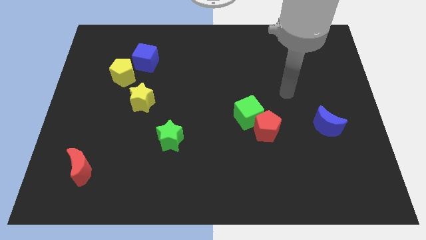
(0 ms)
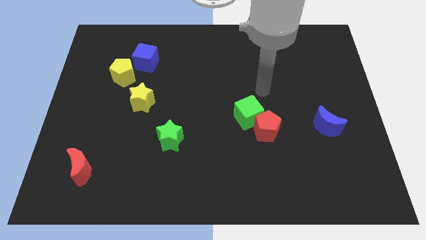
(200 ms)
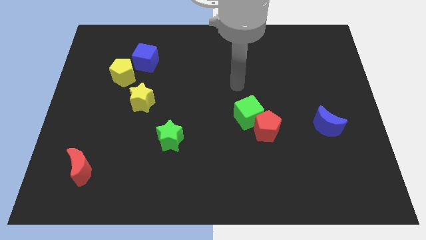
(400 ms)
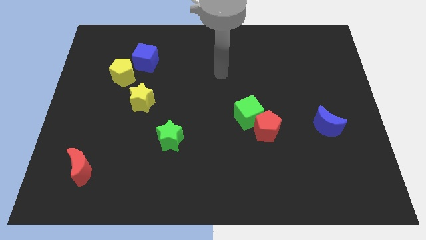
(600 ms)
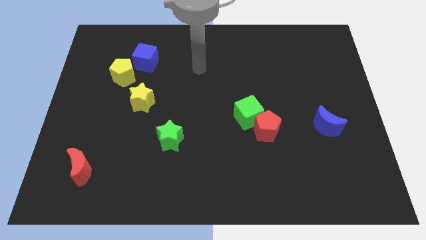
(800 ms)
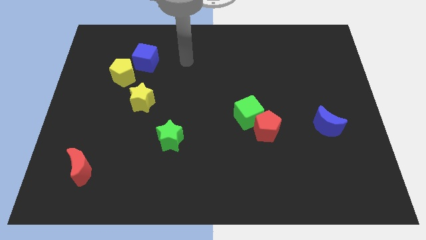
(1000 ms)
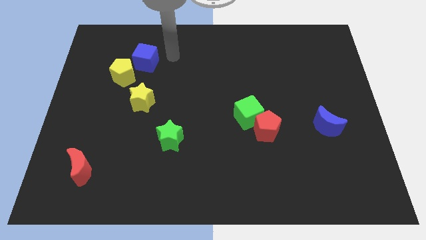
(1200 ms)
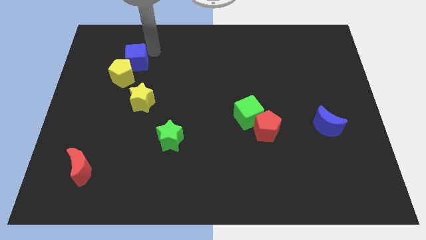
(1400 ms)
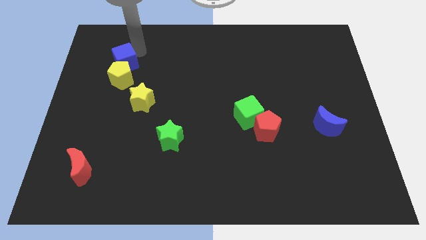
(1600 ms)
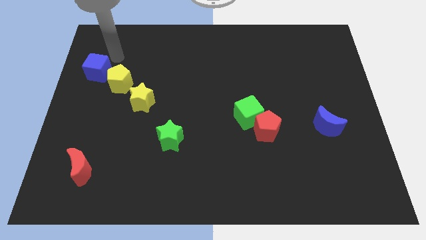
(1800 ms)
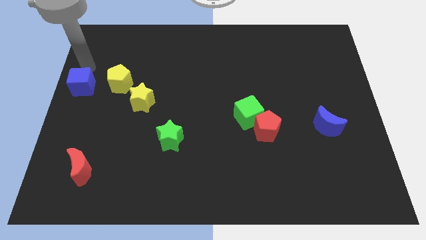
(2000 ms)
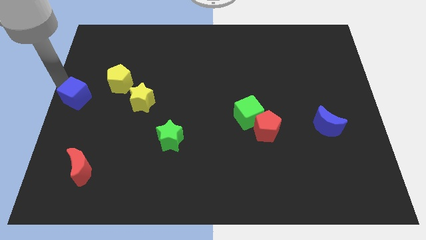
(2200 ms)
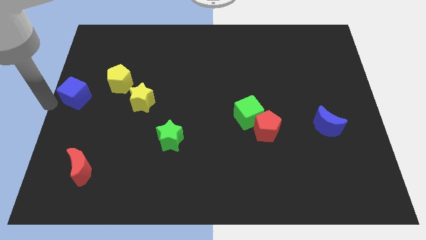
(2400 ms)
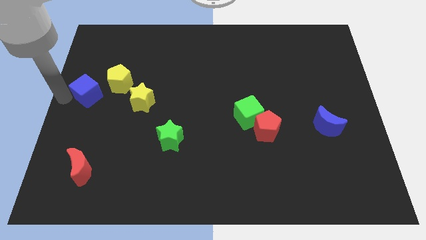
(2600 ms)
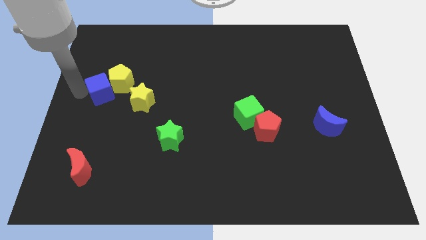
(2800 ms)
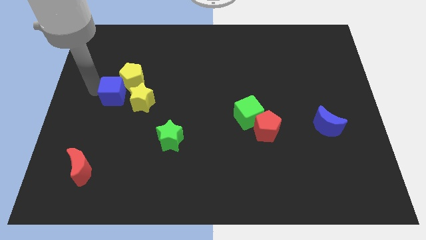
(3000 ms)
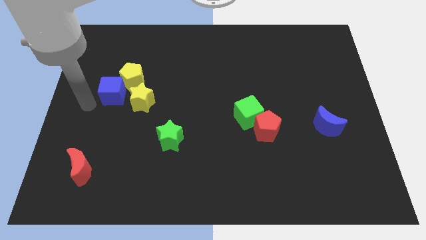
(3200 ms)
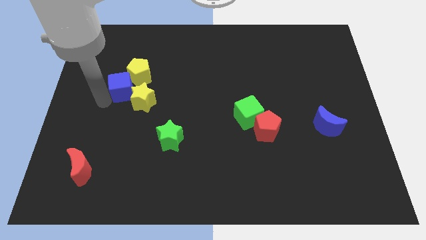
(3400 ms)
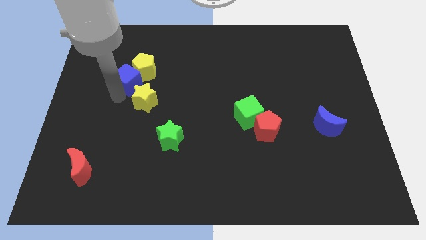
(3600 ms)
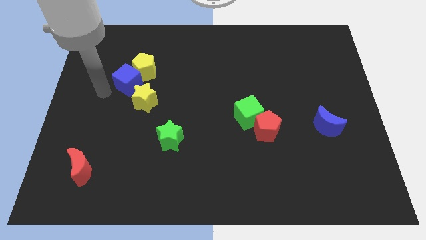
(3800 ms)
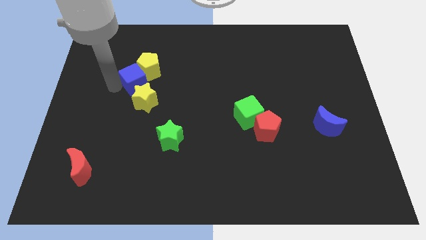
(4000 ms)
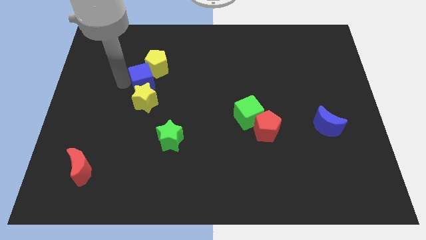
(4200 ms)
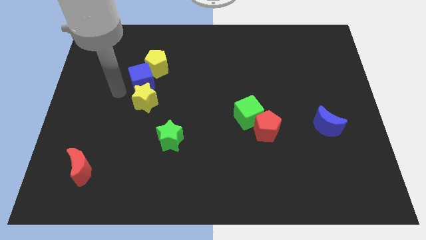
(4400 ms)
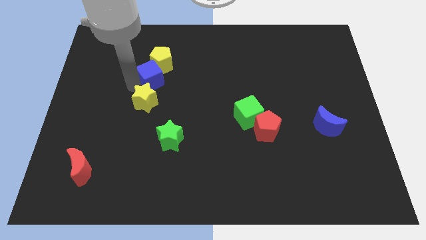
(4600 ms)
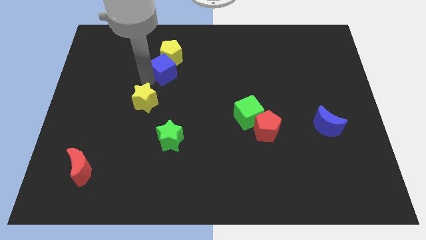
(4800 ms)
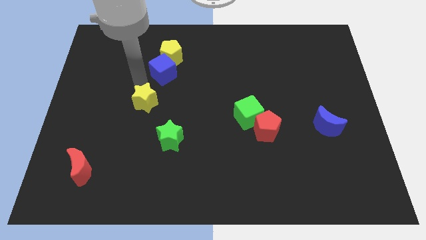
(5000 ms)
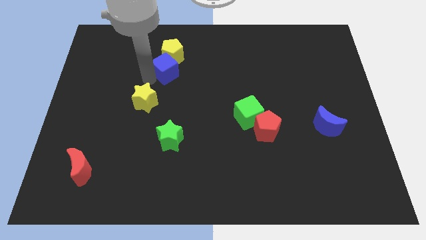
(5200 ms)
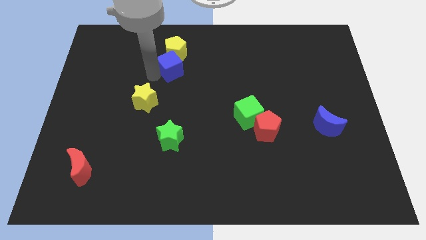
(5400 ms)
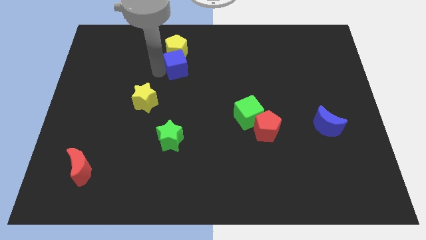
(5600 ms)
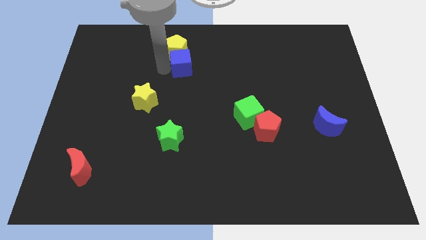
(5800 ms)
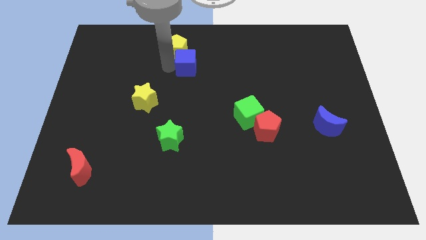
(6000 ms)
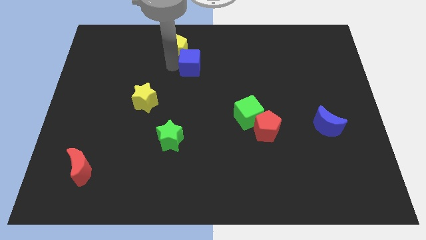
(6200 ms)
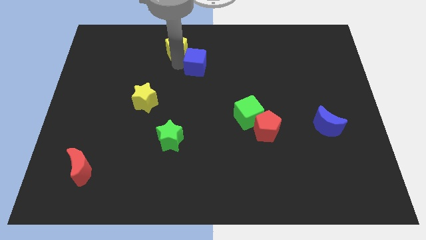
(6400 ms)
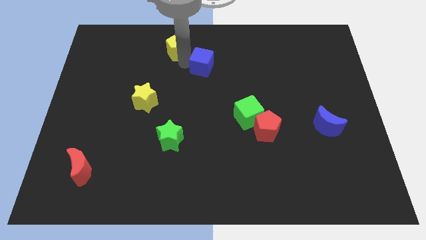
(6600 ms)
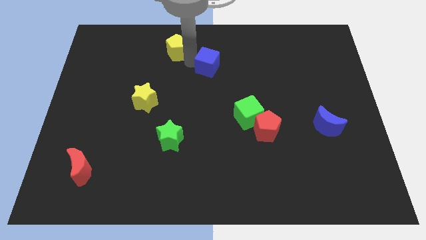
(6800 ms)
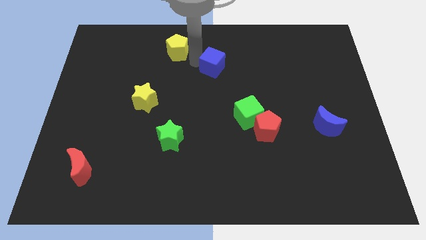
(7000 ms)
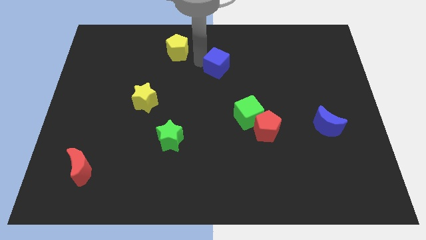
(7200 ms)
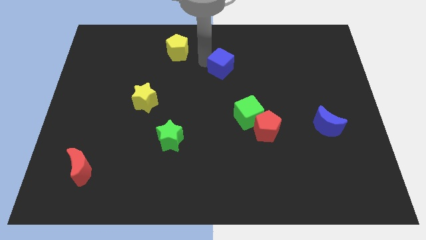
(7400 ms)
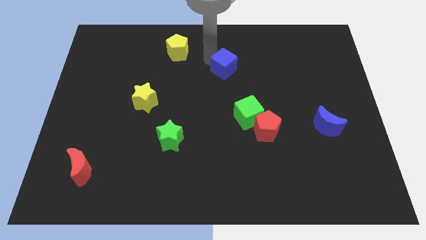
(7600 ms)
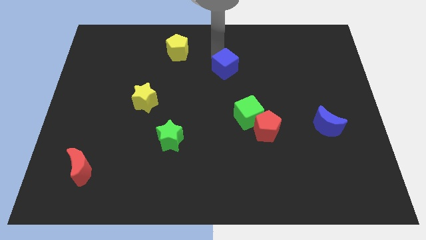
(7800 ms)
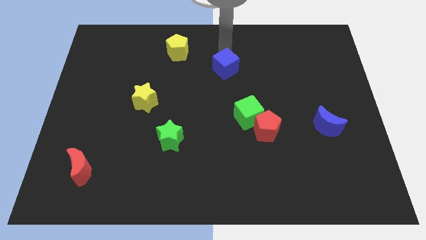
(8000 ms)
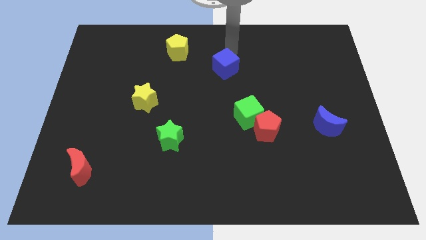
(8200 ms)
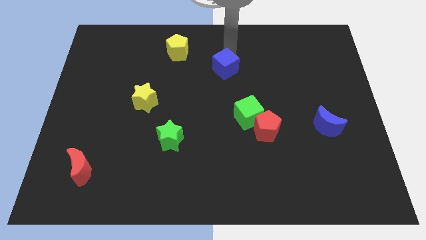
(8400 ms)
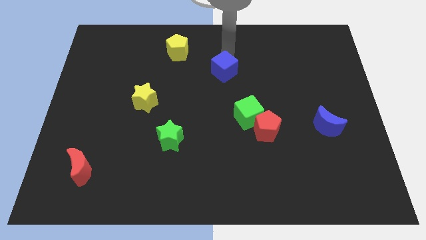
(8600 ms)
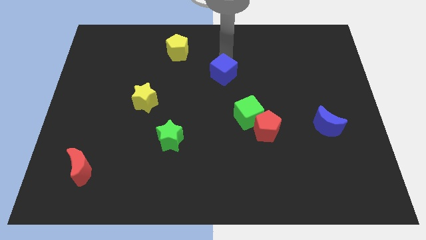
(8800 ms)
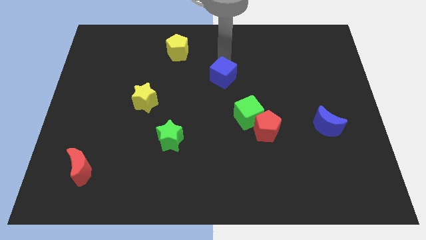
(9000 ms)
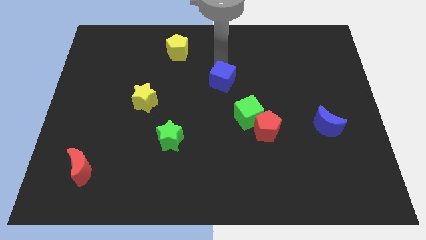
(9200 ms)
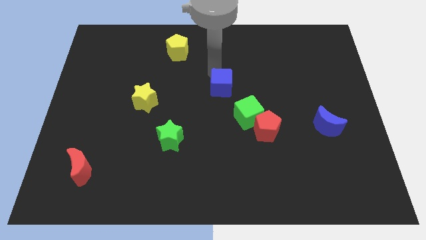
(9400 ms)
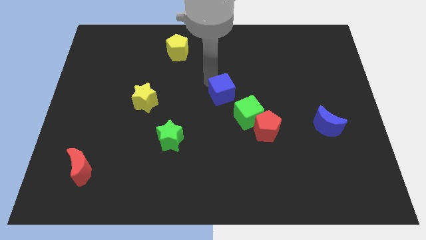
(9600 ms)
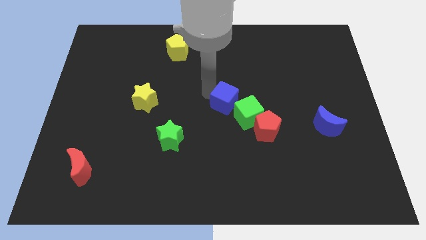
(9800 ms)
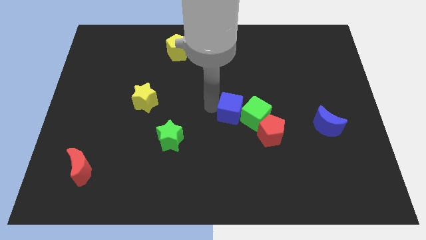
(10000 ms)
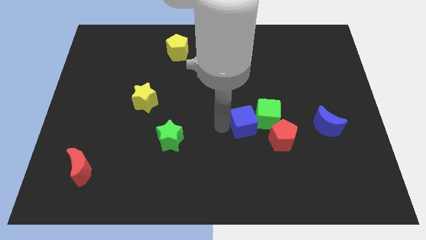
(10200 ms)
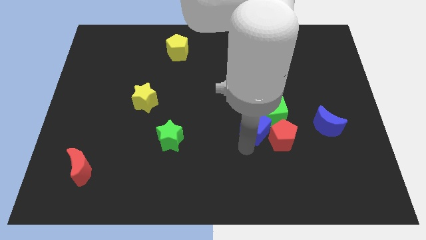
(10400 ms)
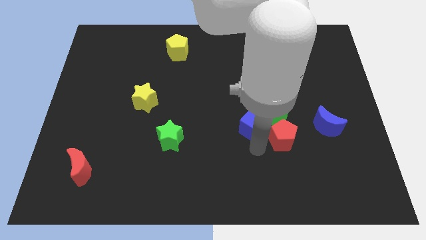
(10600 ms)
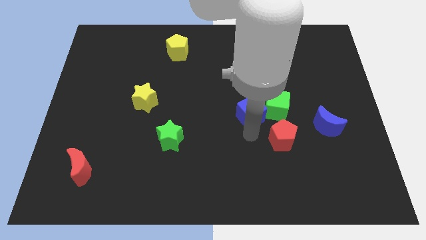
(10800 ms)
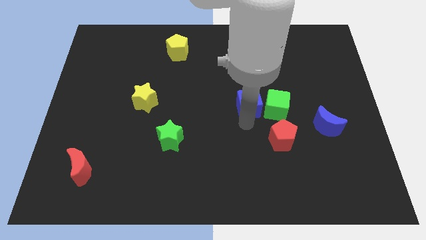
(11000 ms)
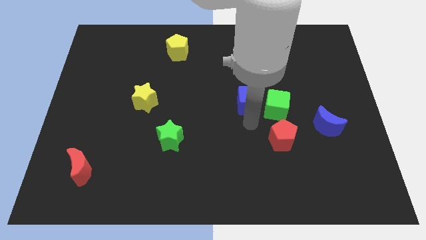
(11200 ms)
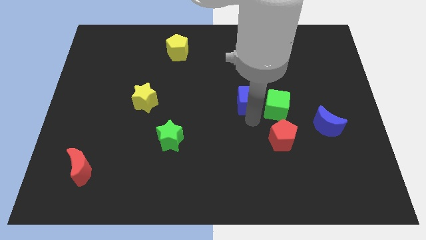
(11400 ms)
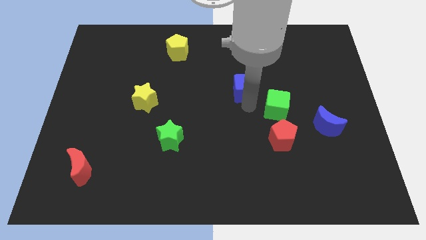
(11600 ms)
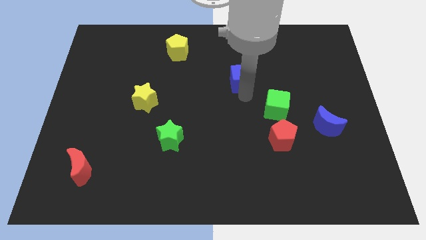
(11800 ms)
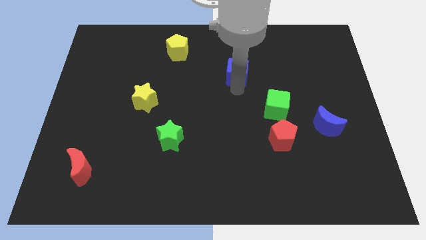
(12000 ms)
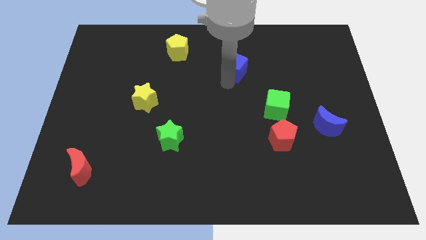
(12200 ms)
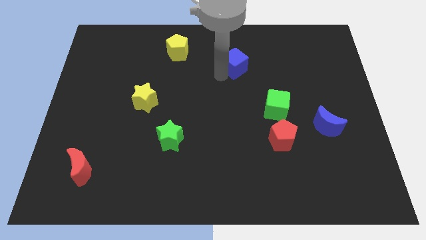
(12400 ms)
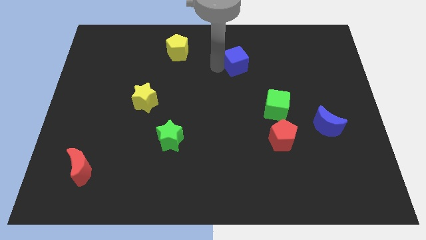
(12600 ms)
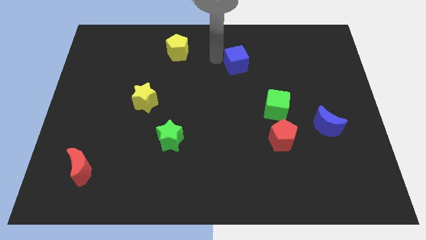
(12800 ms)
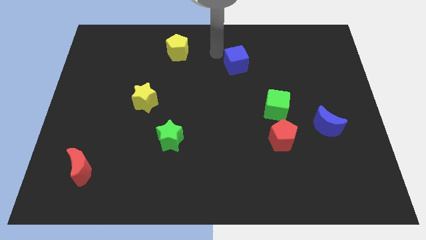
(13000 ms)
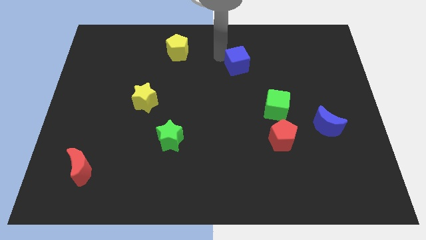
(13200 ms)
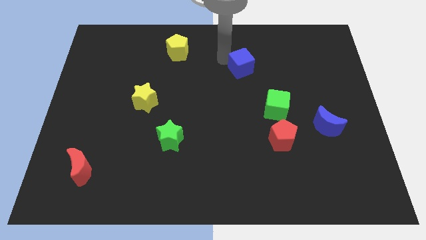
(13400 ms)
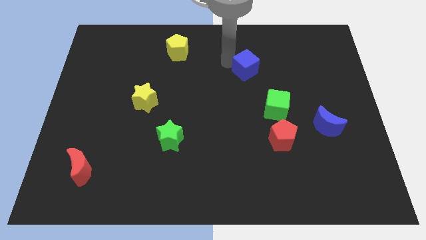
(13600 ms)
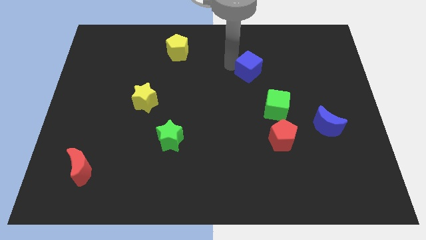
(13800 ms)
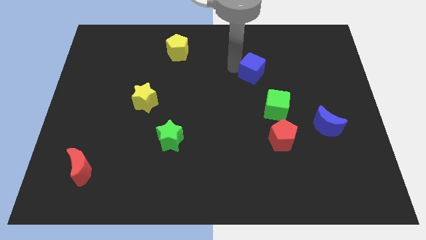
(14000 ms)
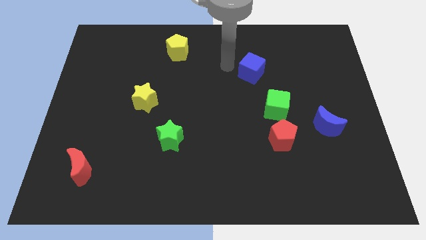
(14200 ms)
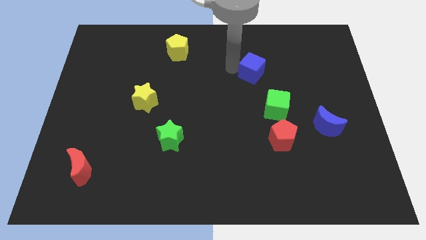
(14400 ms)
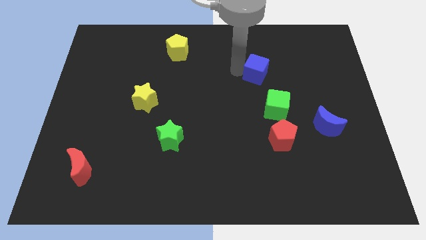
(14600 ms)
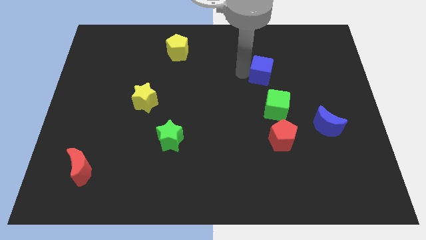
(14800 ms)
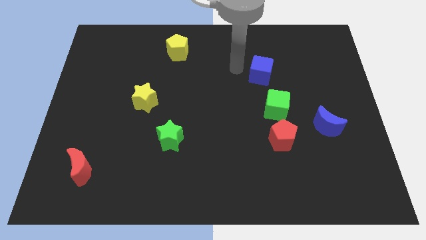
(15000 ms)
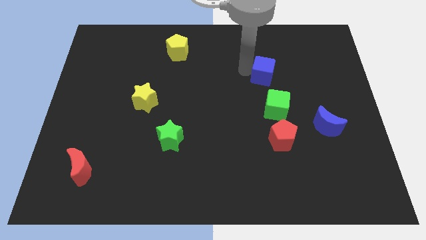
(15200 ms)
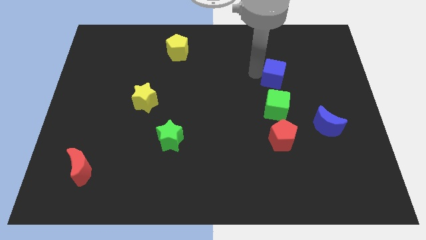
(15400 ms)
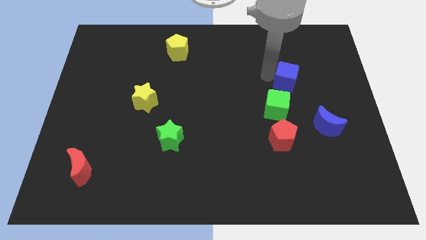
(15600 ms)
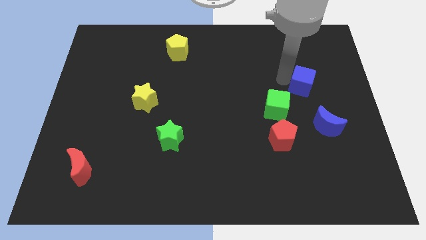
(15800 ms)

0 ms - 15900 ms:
move the blue cube above the blue moon
